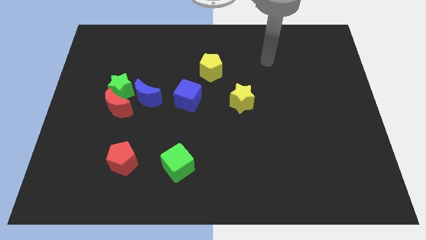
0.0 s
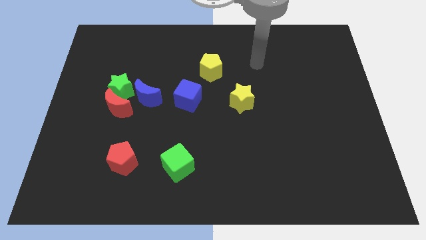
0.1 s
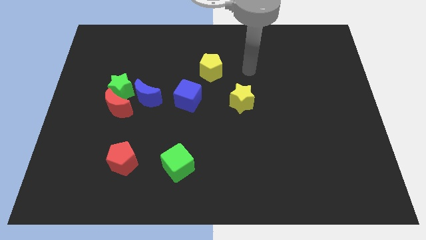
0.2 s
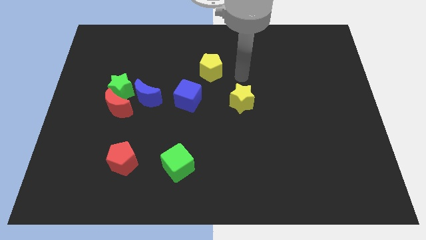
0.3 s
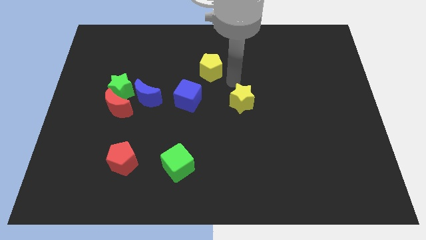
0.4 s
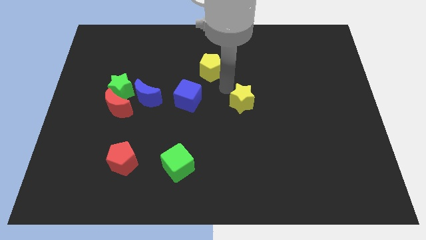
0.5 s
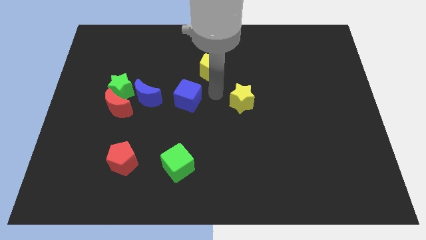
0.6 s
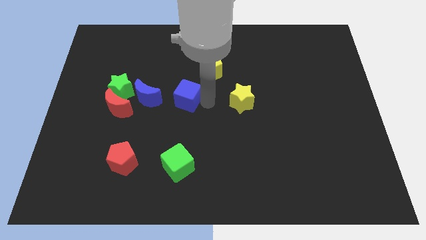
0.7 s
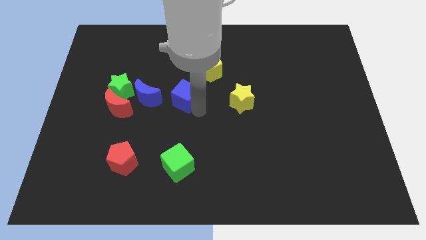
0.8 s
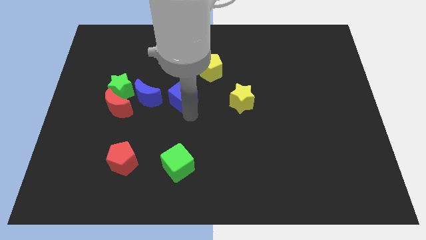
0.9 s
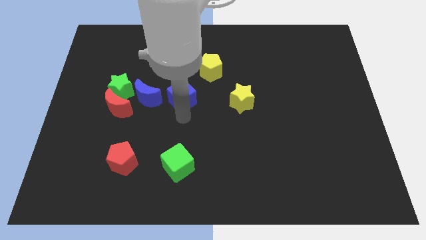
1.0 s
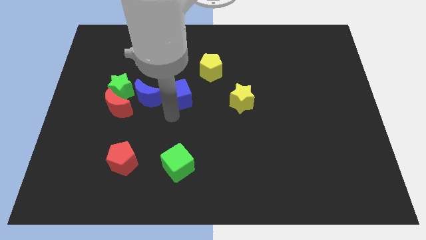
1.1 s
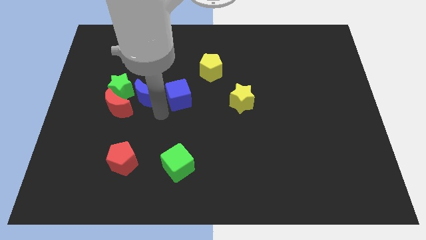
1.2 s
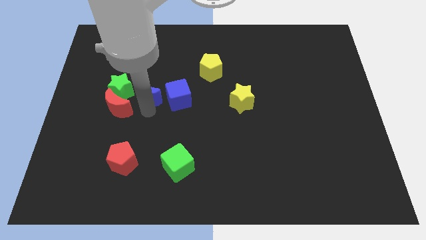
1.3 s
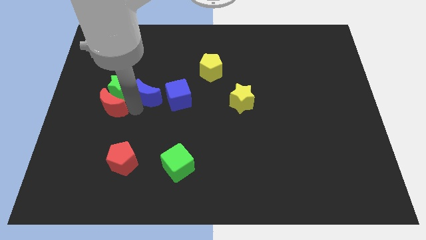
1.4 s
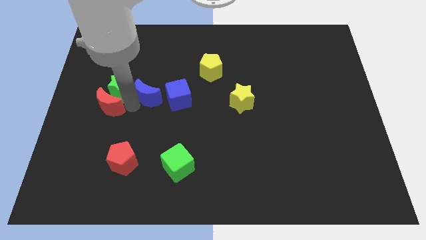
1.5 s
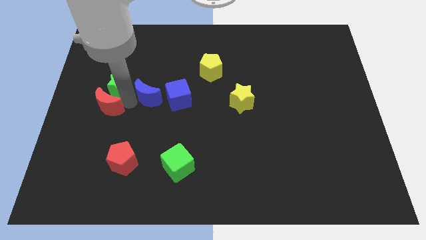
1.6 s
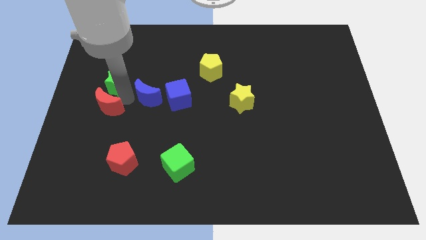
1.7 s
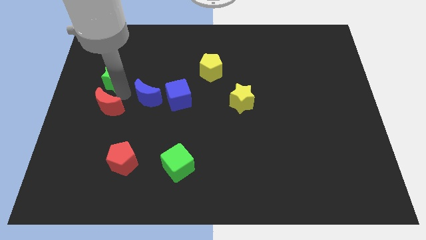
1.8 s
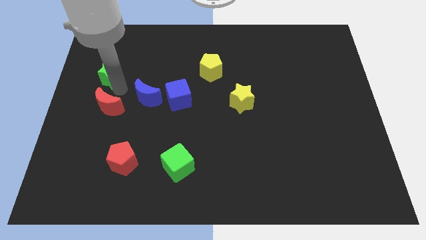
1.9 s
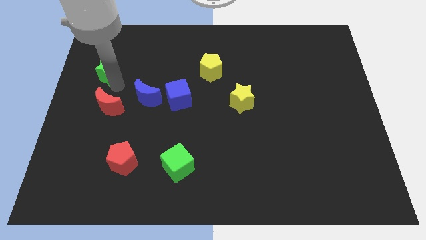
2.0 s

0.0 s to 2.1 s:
pull the green star apart from the red moon and blue moon

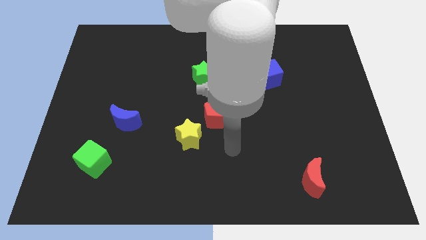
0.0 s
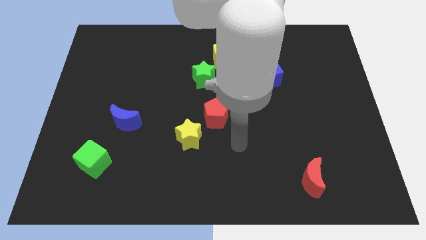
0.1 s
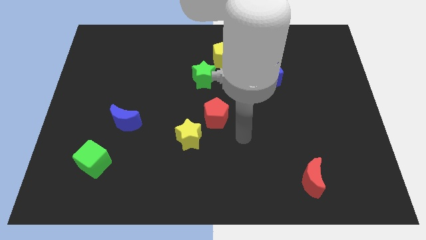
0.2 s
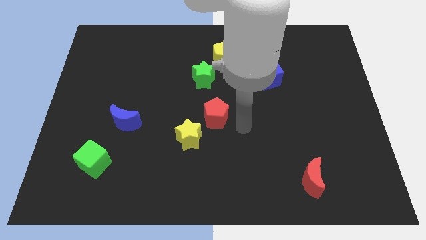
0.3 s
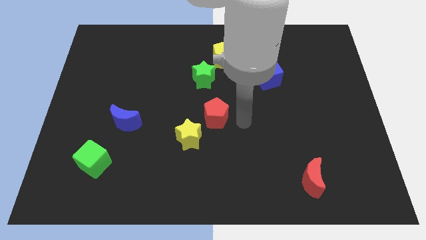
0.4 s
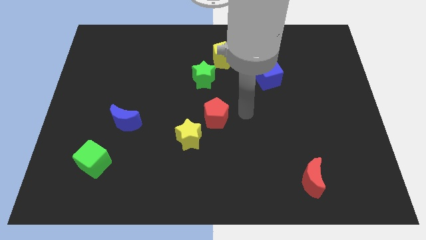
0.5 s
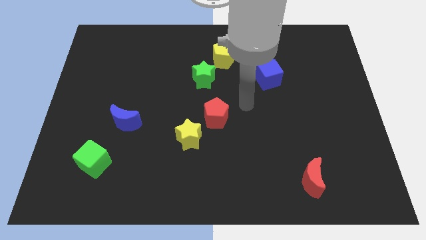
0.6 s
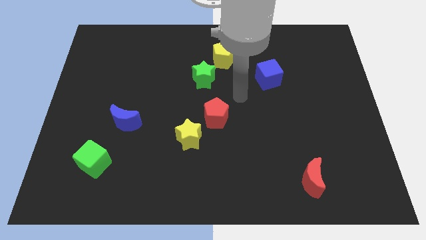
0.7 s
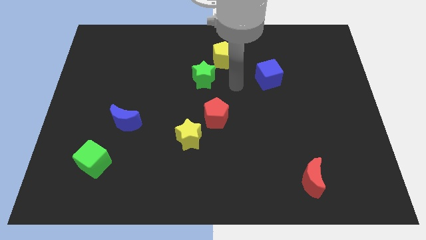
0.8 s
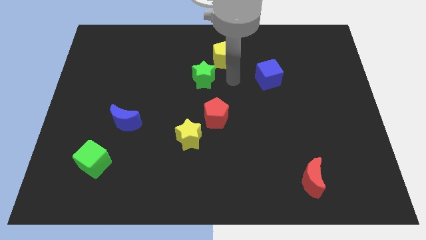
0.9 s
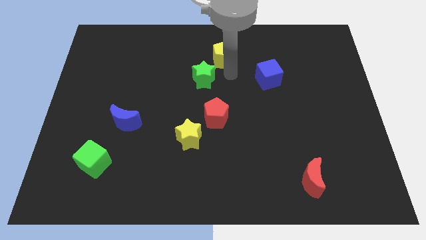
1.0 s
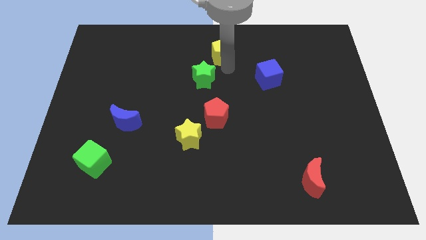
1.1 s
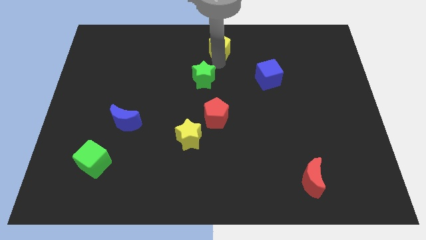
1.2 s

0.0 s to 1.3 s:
separate the green star from the yellow pentagon

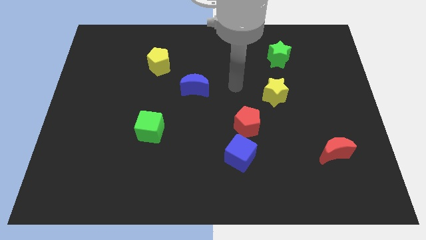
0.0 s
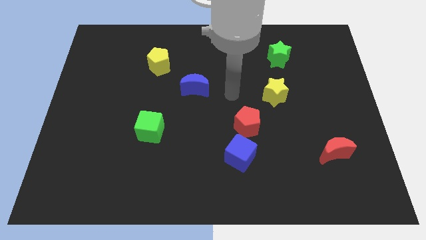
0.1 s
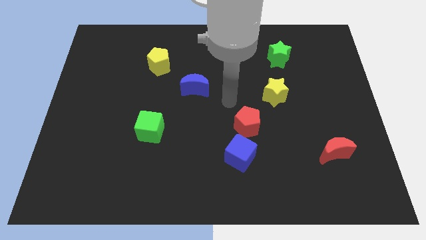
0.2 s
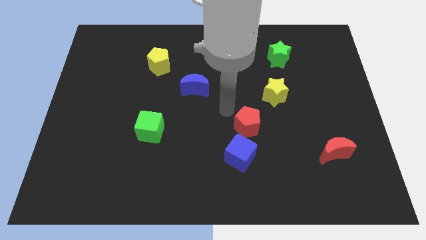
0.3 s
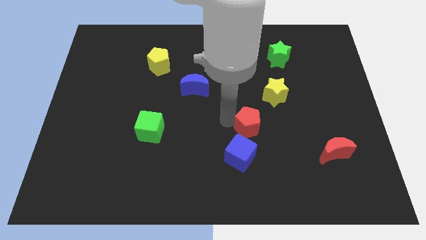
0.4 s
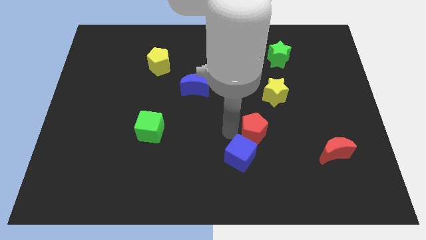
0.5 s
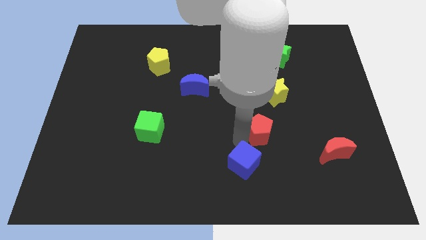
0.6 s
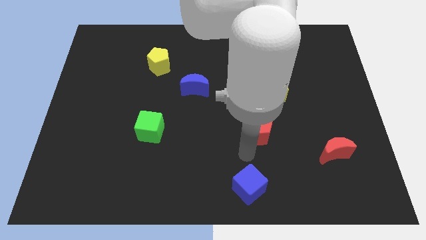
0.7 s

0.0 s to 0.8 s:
move the red pentagon away from the blue cube

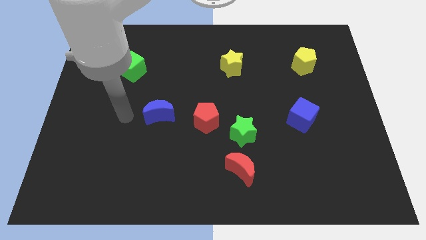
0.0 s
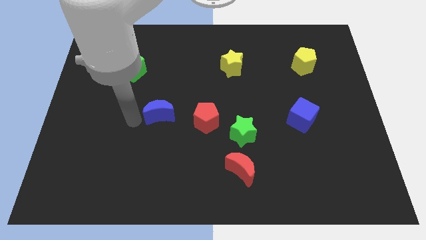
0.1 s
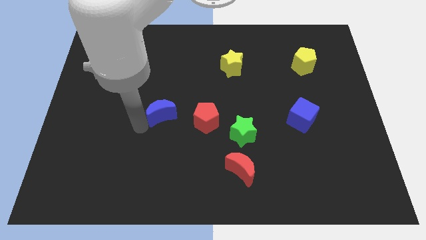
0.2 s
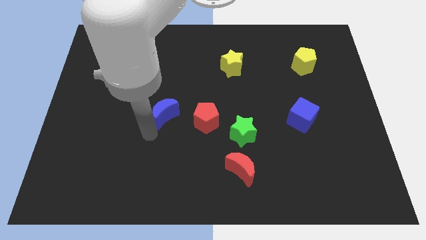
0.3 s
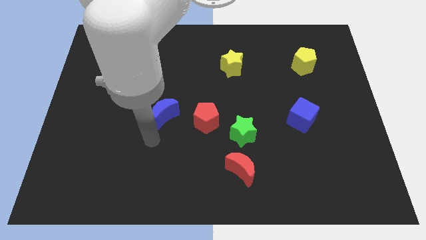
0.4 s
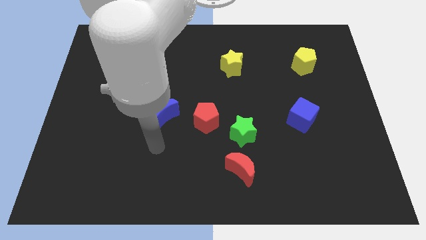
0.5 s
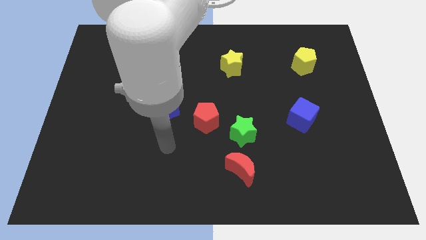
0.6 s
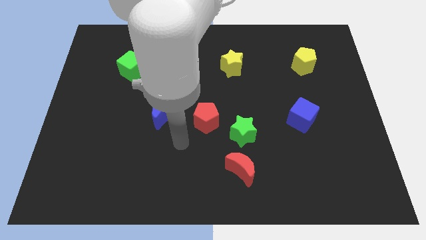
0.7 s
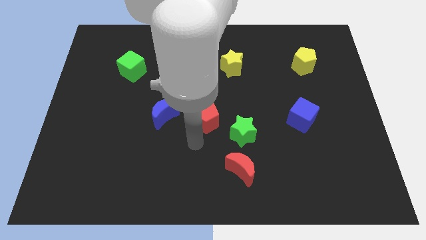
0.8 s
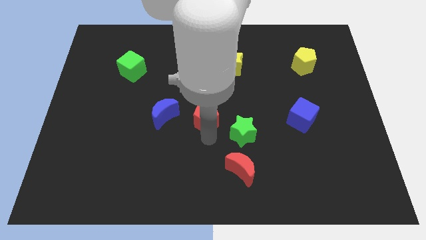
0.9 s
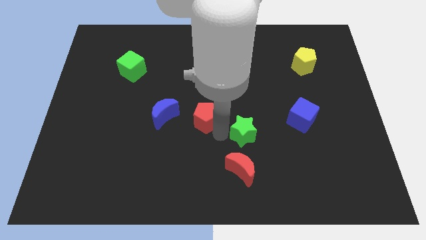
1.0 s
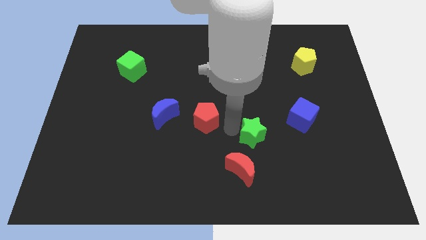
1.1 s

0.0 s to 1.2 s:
separate the red pentagon from the green star

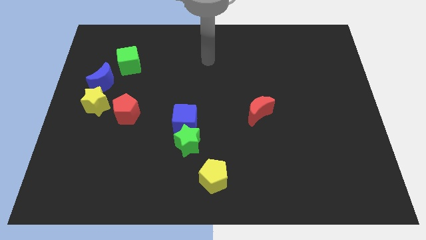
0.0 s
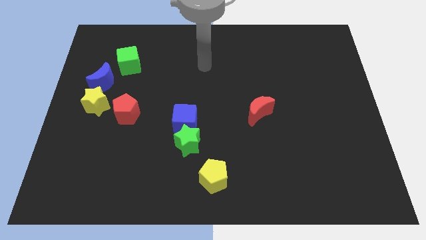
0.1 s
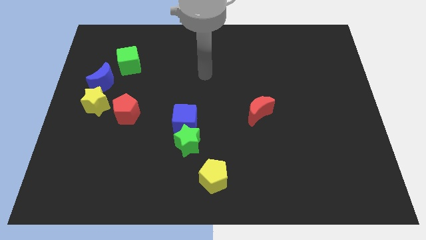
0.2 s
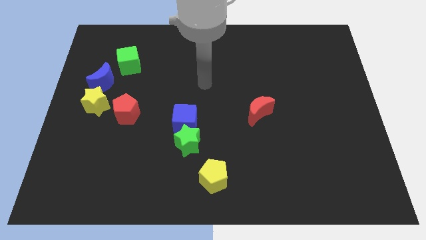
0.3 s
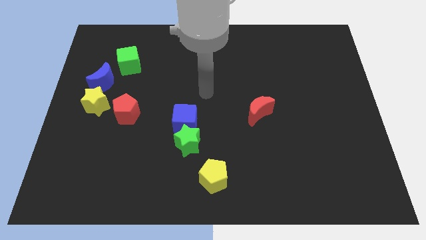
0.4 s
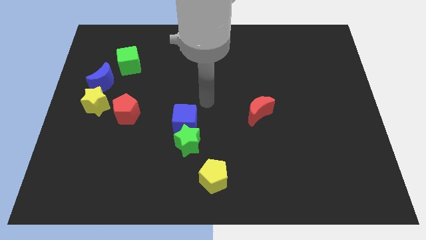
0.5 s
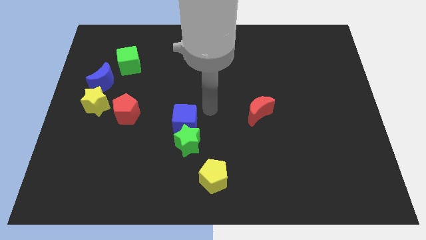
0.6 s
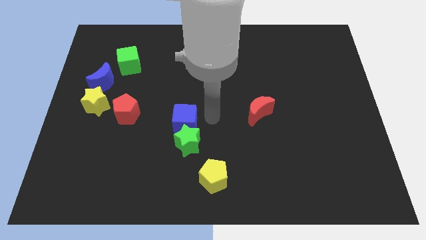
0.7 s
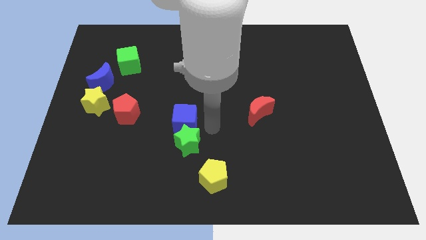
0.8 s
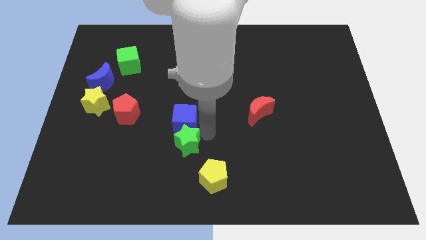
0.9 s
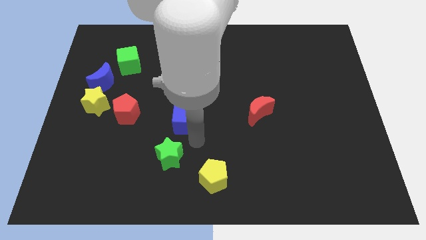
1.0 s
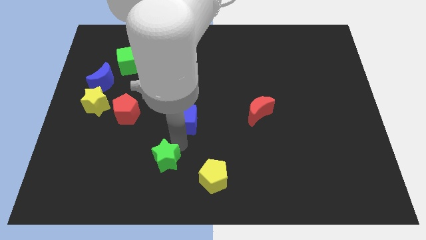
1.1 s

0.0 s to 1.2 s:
move the blue cube away from the green star

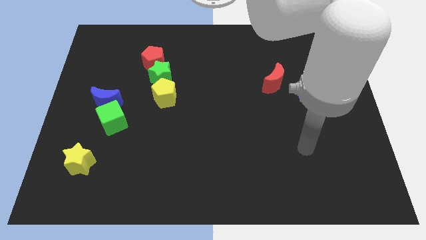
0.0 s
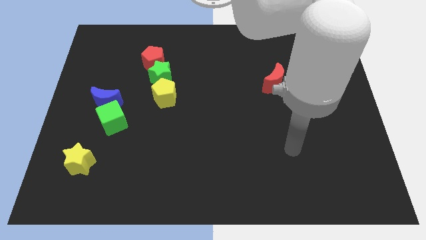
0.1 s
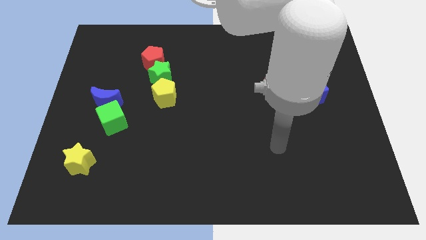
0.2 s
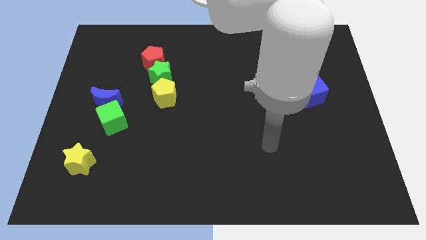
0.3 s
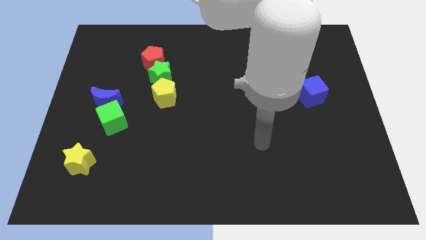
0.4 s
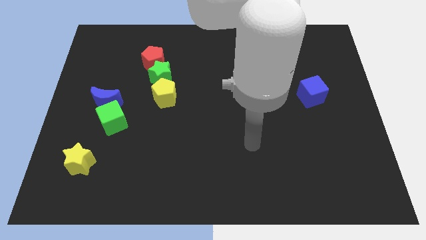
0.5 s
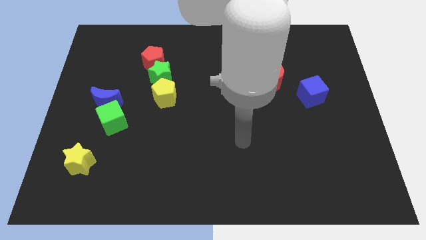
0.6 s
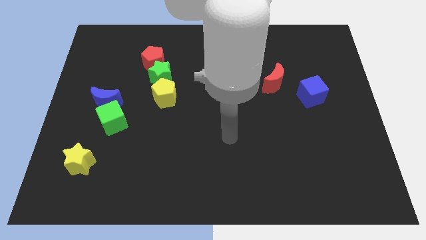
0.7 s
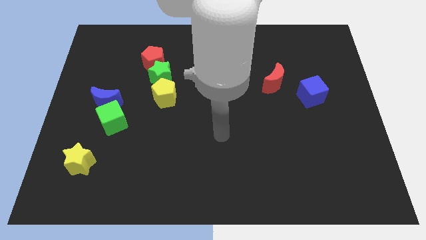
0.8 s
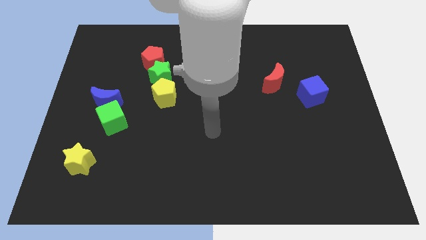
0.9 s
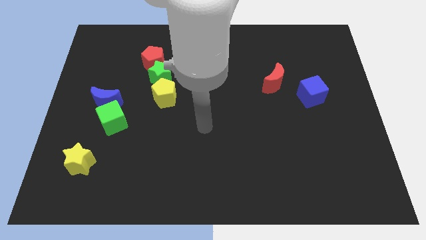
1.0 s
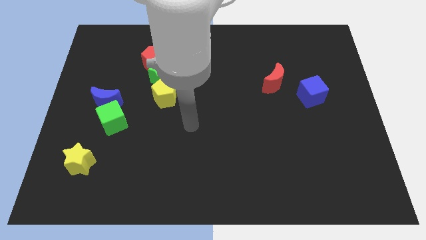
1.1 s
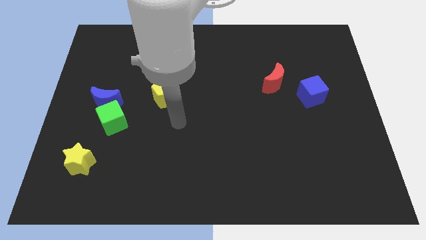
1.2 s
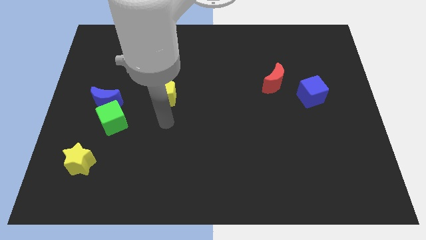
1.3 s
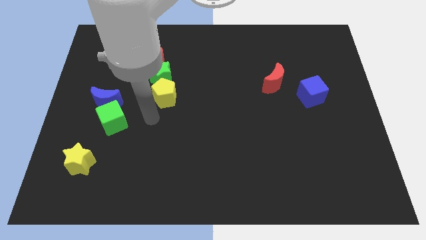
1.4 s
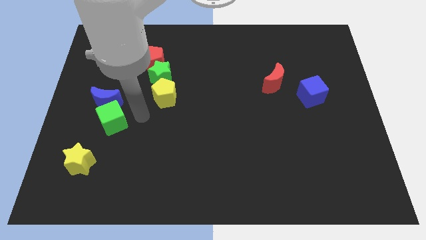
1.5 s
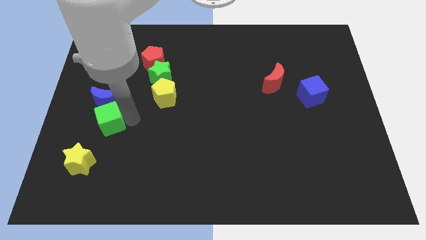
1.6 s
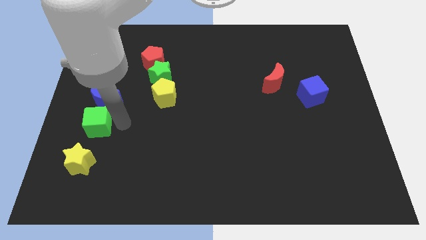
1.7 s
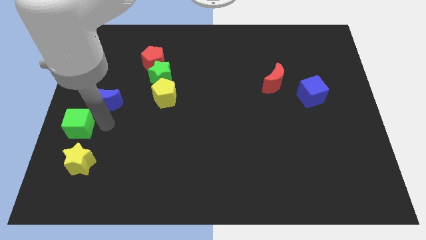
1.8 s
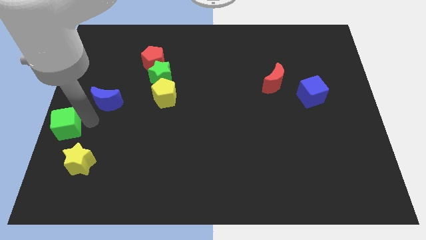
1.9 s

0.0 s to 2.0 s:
pull the blue moon apart from the green cube

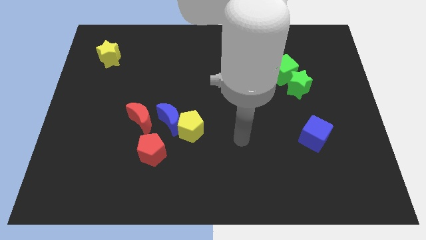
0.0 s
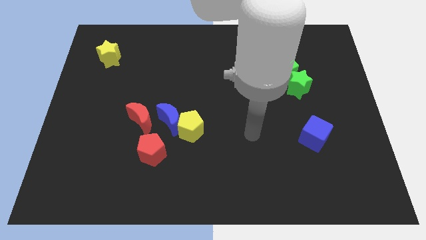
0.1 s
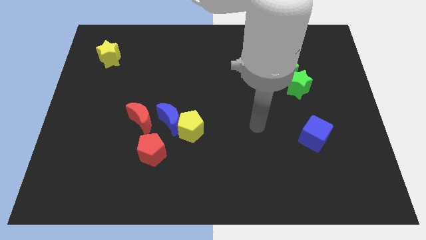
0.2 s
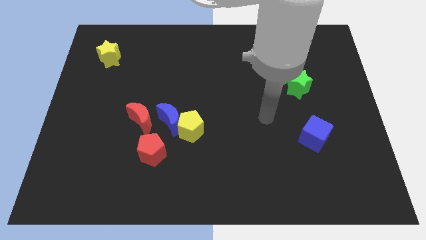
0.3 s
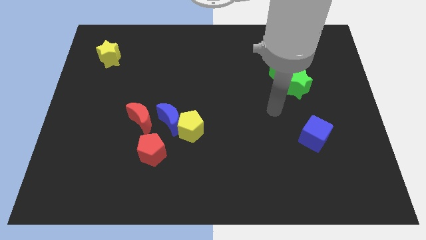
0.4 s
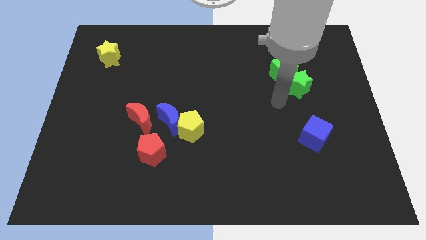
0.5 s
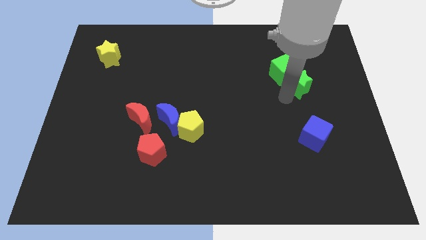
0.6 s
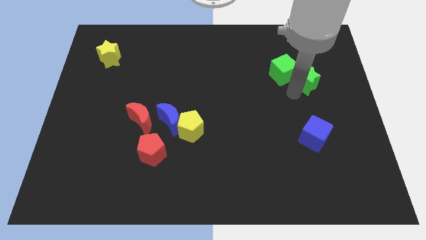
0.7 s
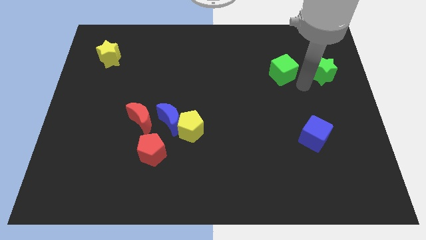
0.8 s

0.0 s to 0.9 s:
separate the green cube from the green star
